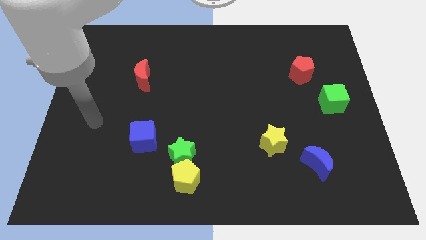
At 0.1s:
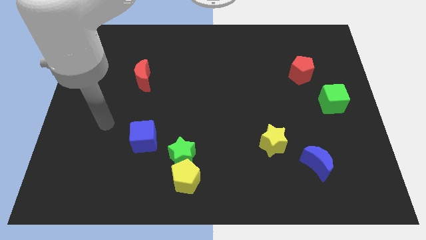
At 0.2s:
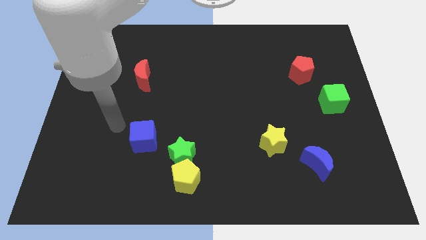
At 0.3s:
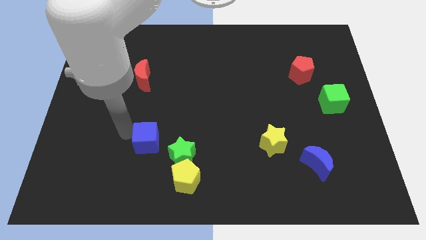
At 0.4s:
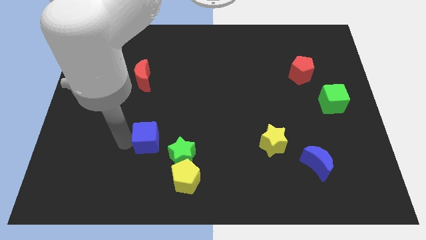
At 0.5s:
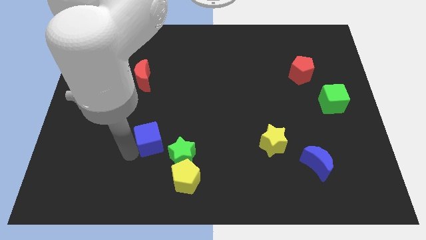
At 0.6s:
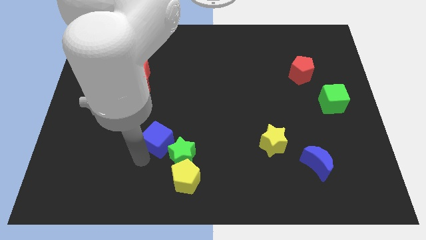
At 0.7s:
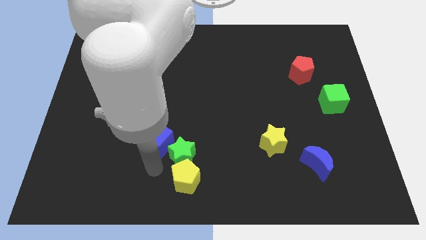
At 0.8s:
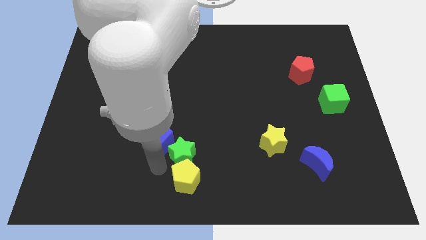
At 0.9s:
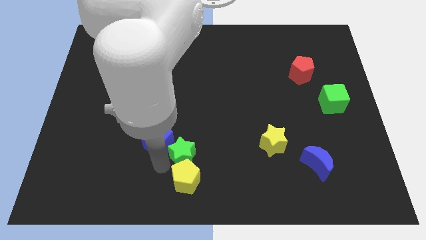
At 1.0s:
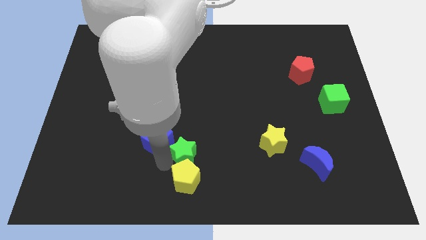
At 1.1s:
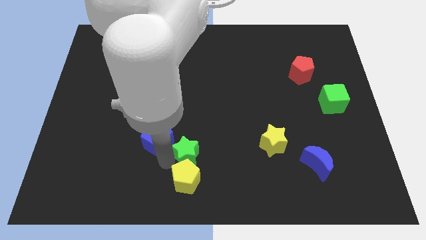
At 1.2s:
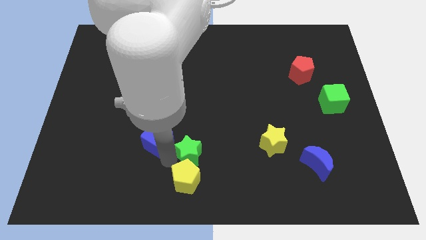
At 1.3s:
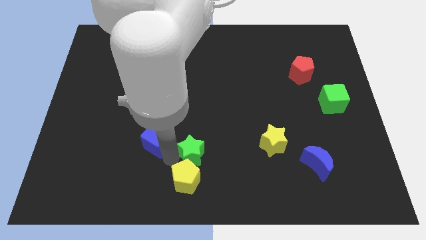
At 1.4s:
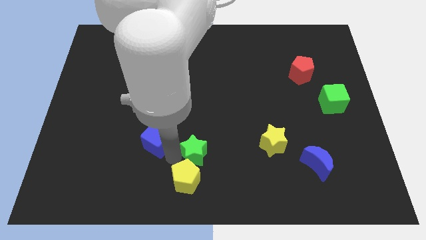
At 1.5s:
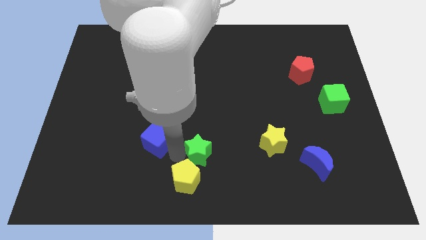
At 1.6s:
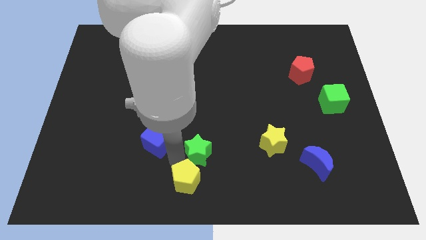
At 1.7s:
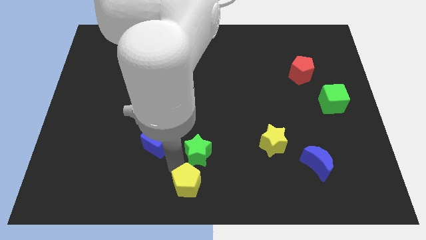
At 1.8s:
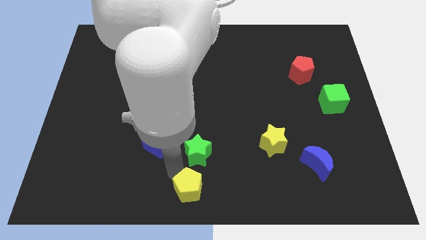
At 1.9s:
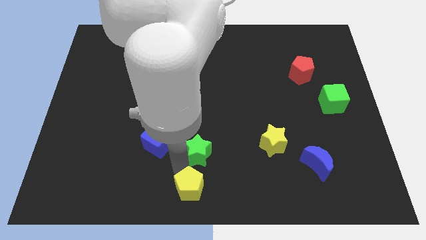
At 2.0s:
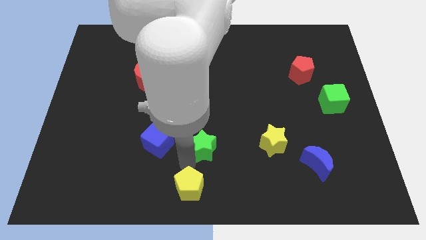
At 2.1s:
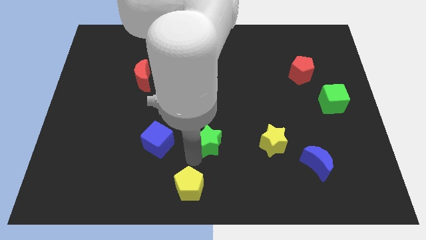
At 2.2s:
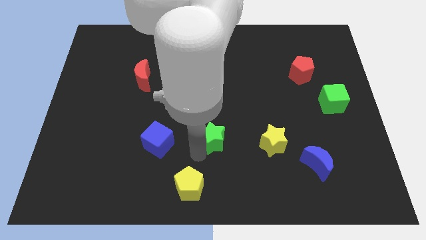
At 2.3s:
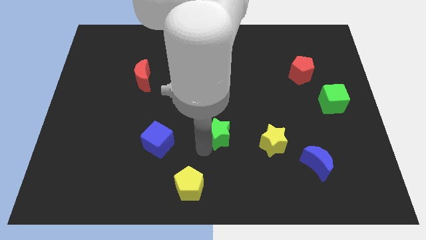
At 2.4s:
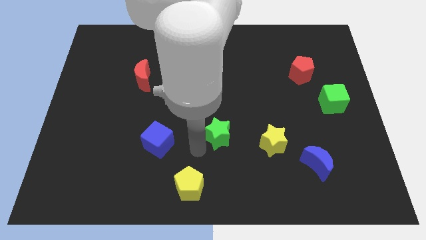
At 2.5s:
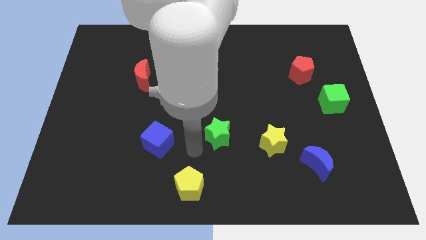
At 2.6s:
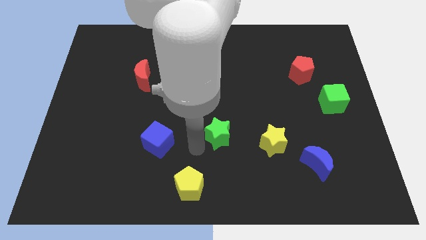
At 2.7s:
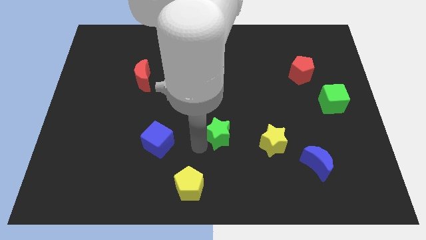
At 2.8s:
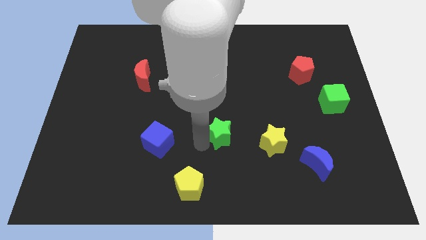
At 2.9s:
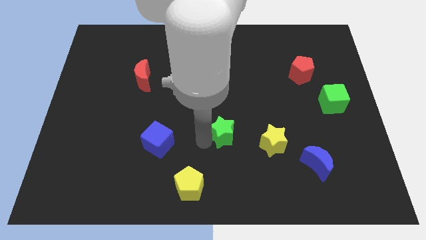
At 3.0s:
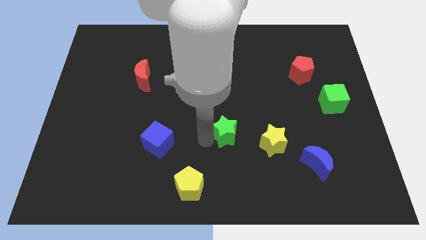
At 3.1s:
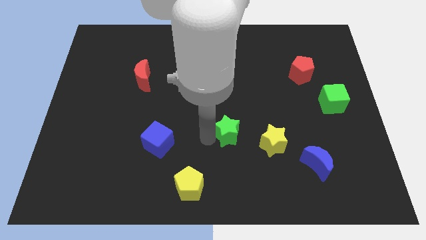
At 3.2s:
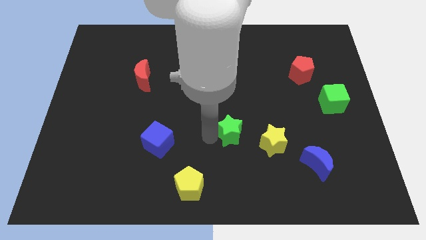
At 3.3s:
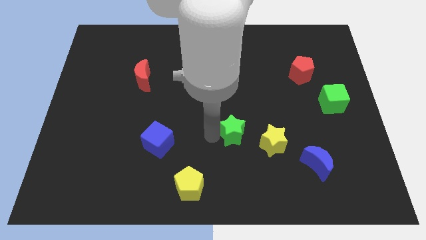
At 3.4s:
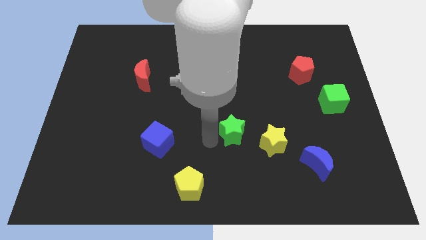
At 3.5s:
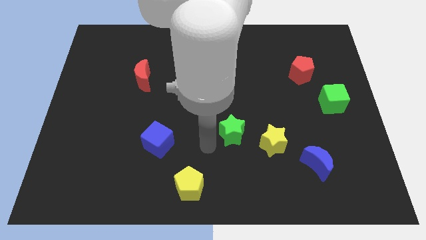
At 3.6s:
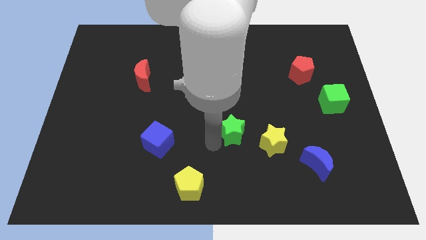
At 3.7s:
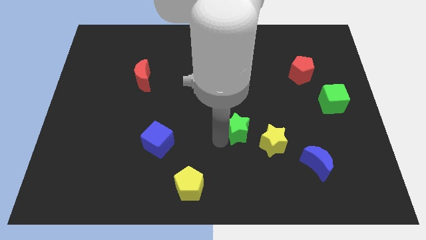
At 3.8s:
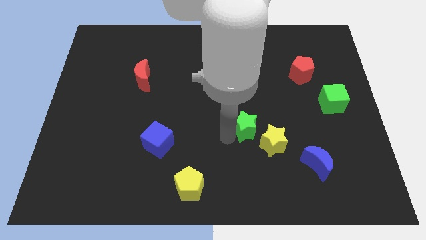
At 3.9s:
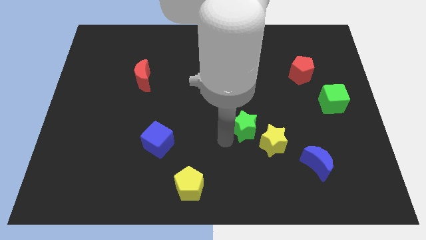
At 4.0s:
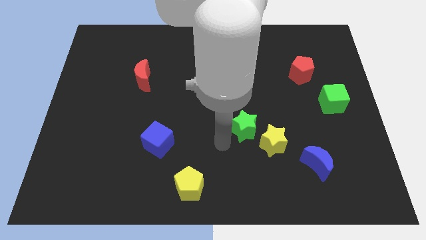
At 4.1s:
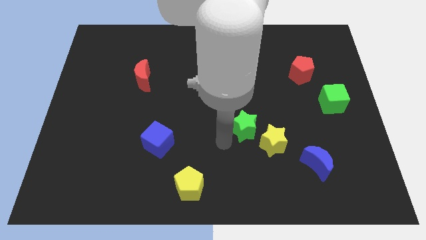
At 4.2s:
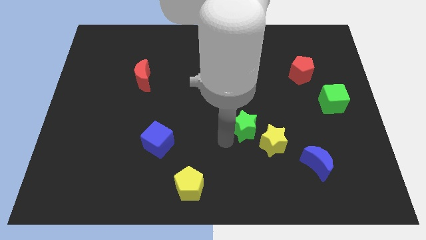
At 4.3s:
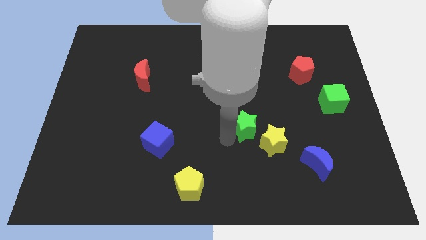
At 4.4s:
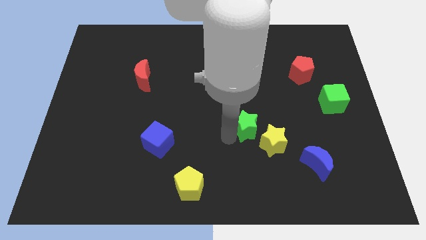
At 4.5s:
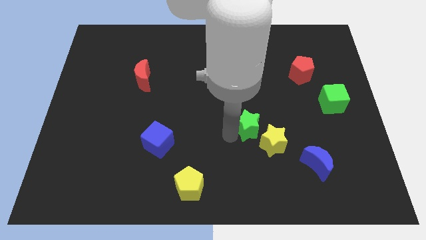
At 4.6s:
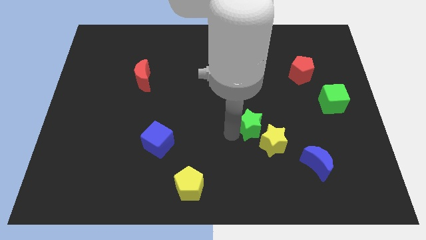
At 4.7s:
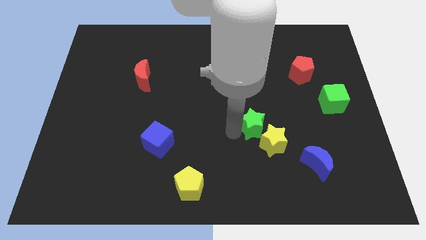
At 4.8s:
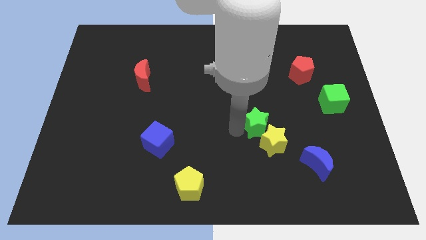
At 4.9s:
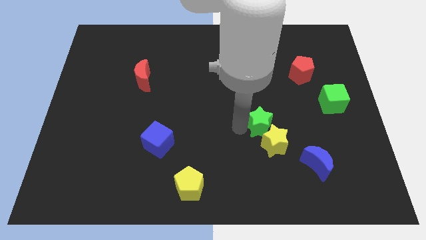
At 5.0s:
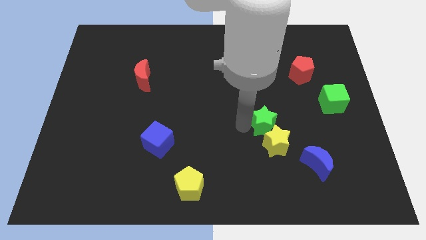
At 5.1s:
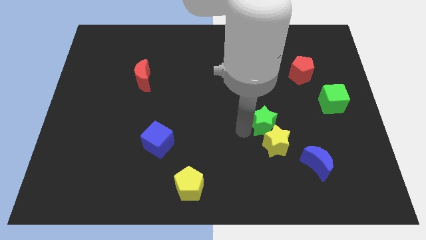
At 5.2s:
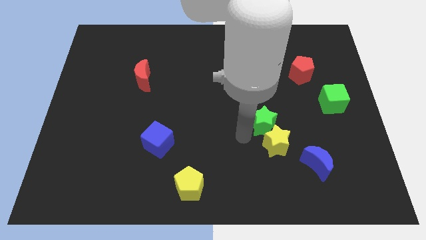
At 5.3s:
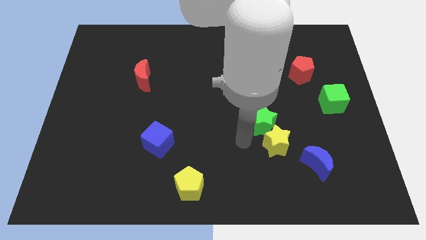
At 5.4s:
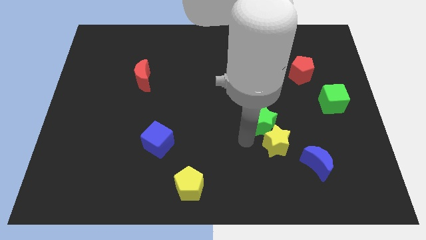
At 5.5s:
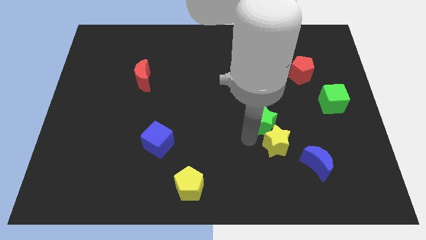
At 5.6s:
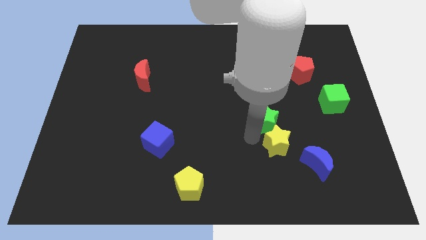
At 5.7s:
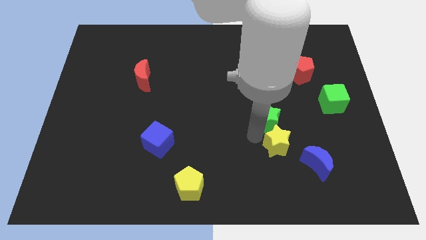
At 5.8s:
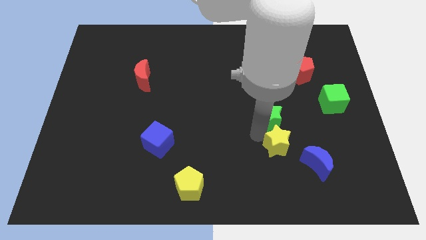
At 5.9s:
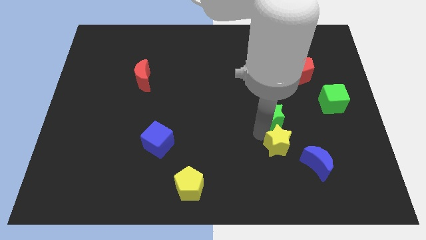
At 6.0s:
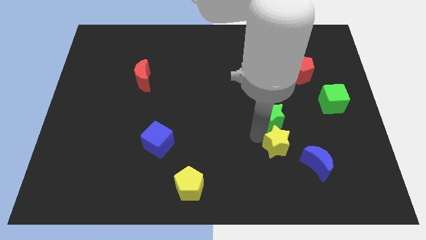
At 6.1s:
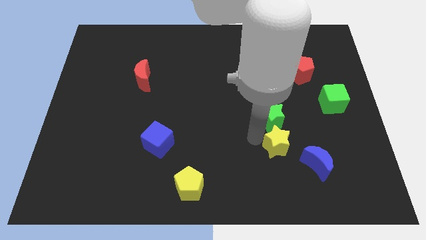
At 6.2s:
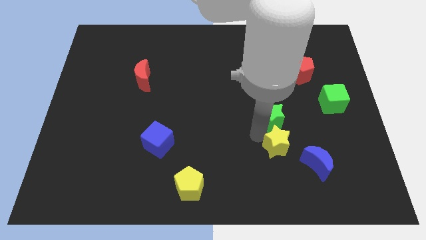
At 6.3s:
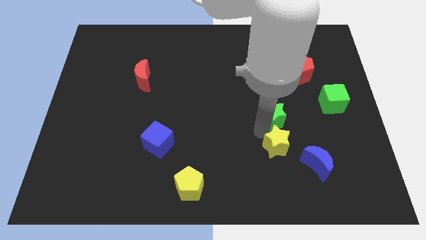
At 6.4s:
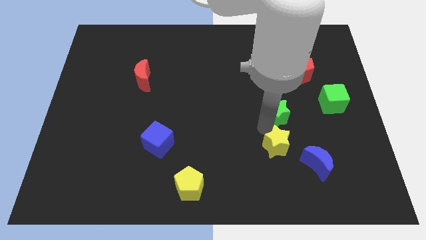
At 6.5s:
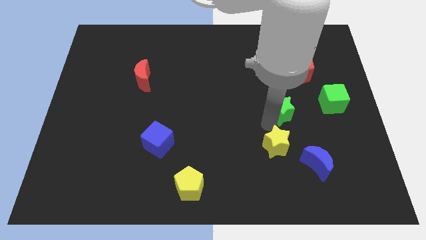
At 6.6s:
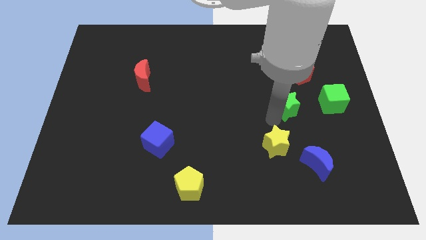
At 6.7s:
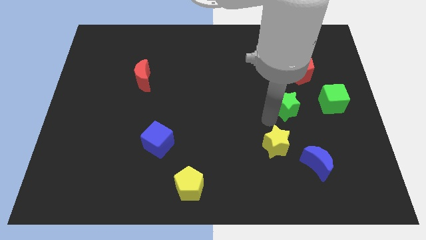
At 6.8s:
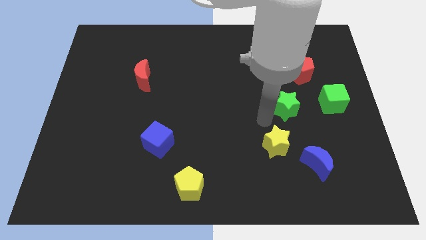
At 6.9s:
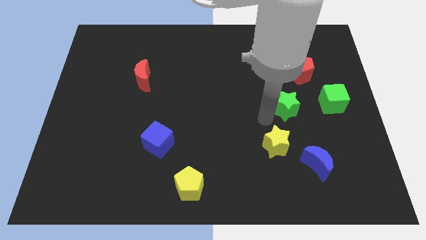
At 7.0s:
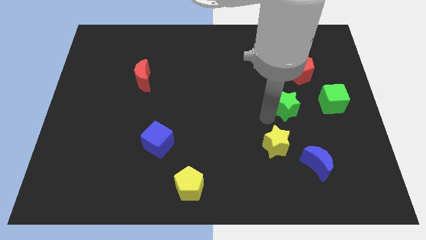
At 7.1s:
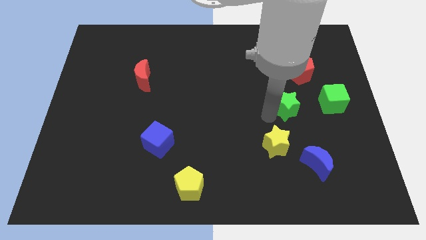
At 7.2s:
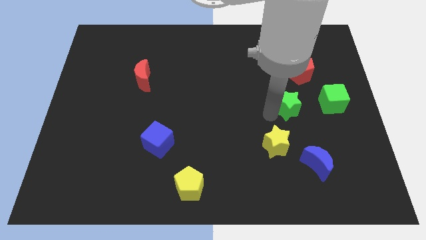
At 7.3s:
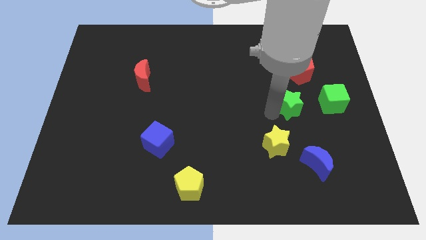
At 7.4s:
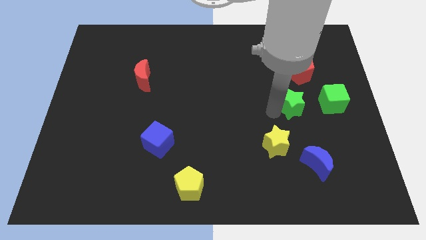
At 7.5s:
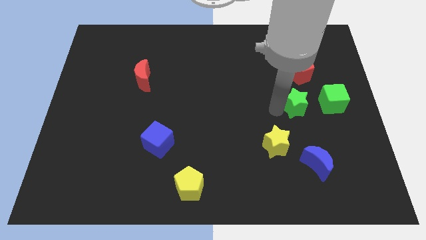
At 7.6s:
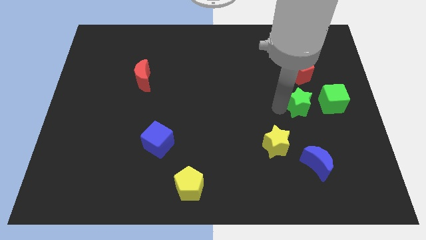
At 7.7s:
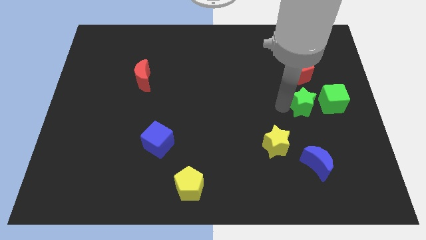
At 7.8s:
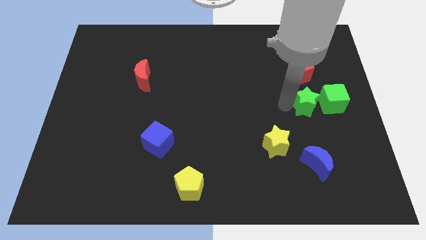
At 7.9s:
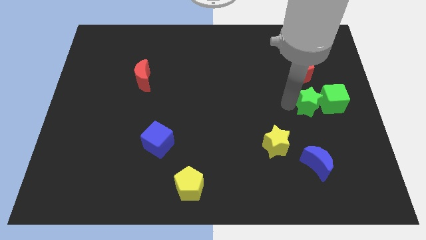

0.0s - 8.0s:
put the green star next to the green cube
